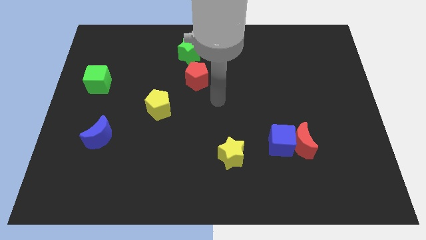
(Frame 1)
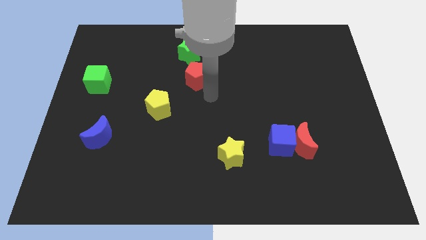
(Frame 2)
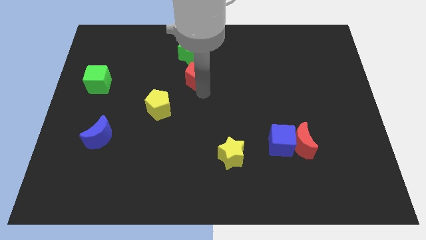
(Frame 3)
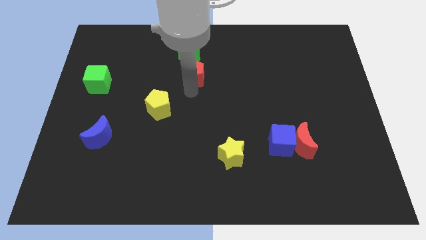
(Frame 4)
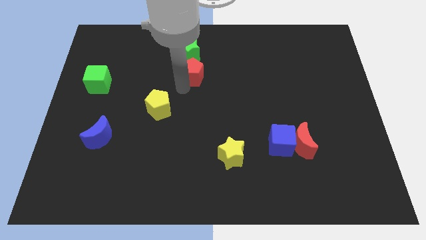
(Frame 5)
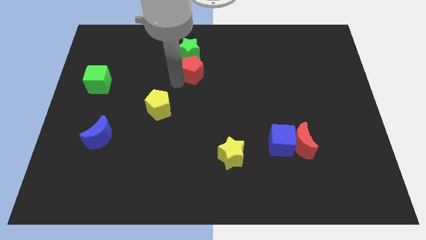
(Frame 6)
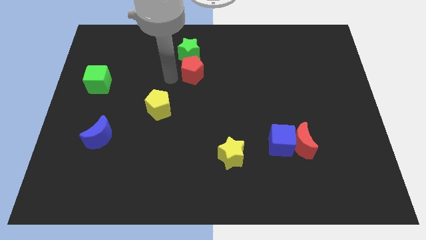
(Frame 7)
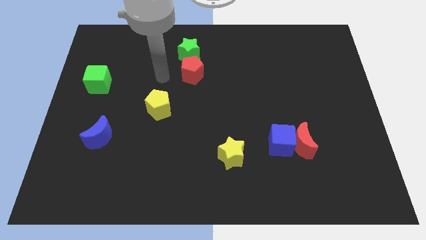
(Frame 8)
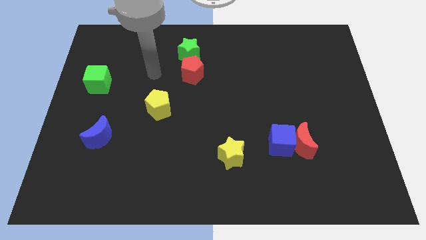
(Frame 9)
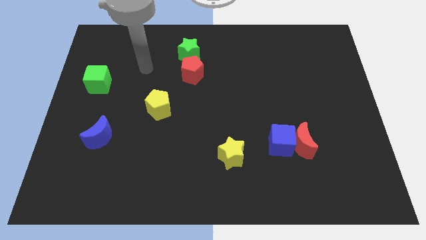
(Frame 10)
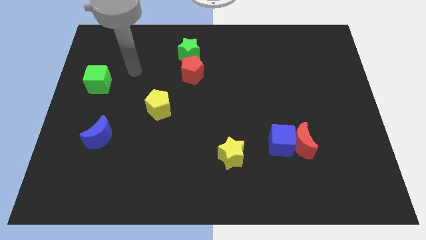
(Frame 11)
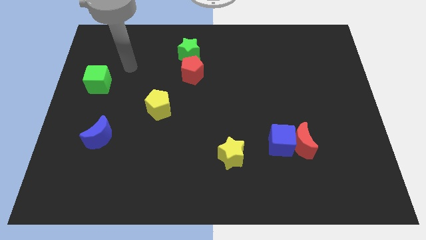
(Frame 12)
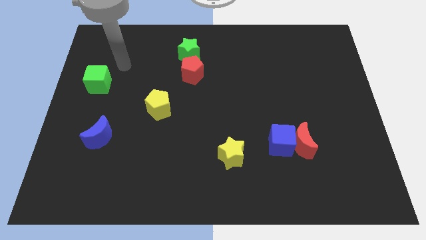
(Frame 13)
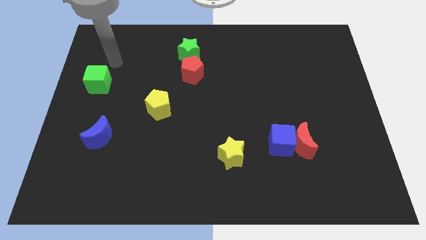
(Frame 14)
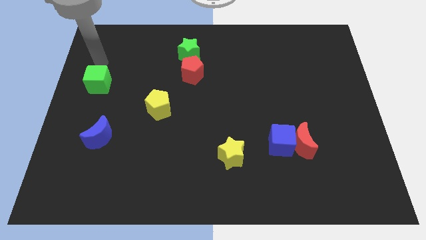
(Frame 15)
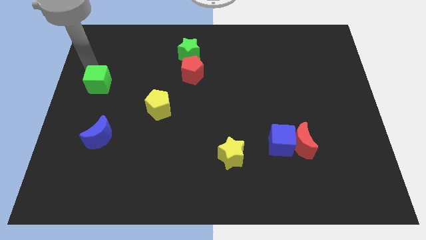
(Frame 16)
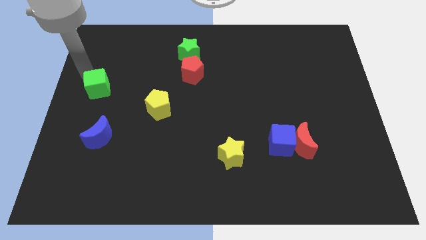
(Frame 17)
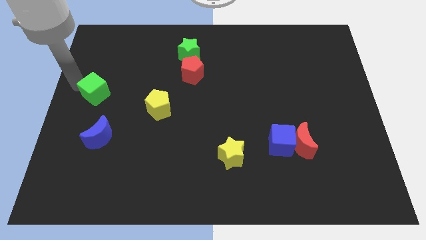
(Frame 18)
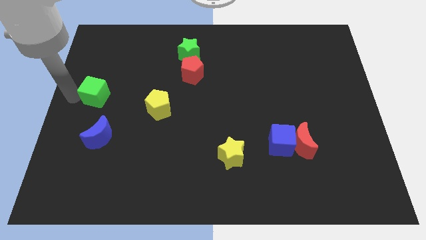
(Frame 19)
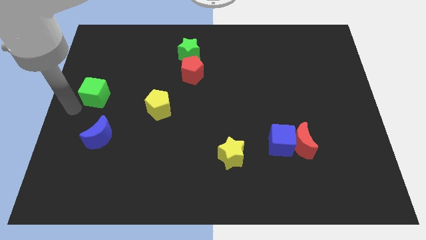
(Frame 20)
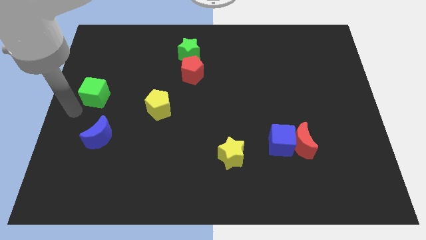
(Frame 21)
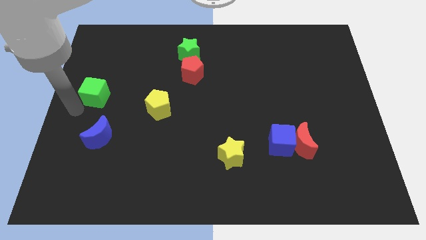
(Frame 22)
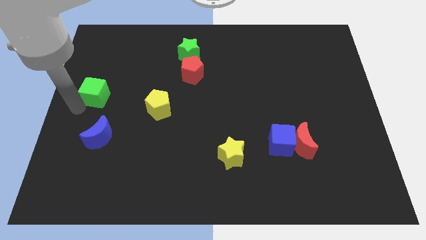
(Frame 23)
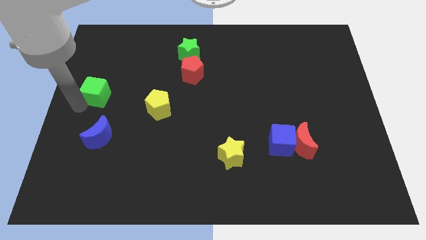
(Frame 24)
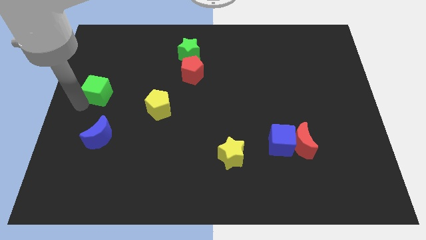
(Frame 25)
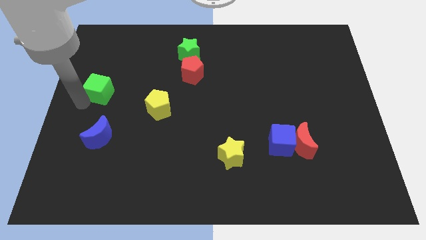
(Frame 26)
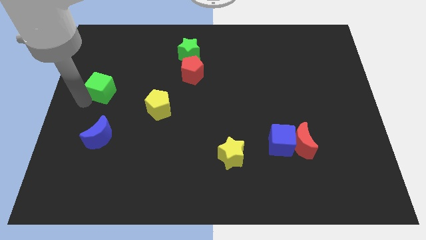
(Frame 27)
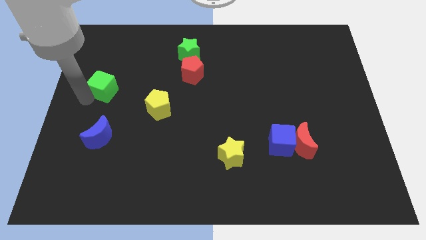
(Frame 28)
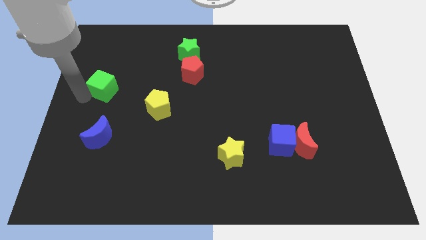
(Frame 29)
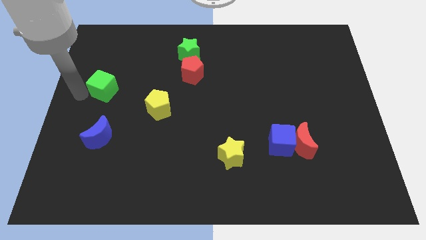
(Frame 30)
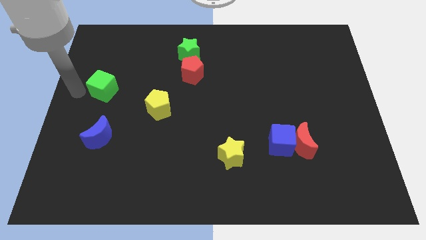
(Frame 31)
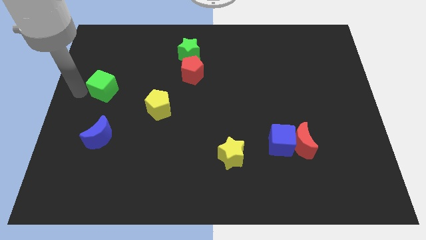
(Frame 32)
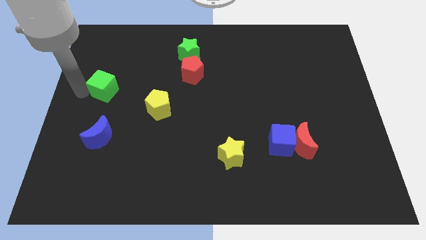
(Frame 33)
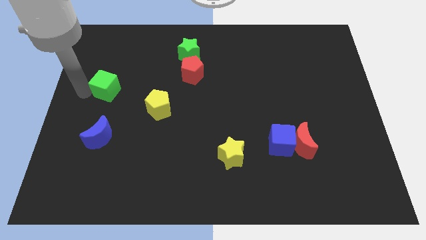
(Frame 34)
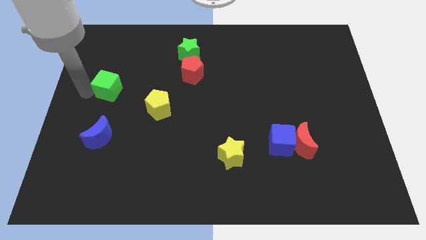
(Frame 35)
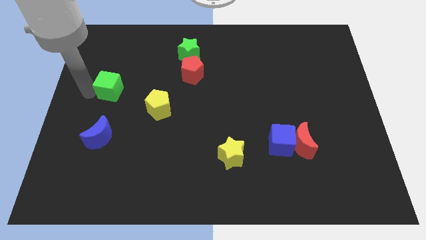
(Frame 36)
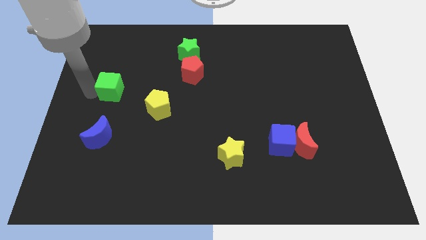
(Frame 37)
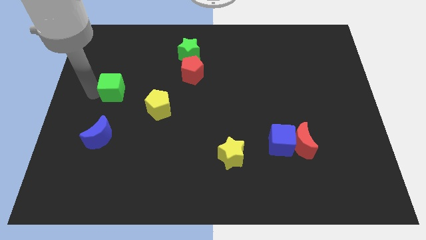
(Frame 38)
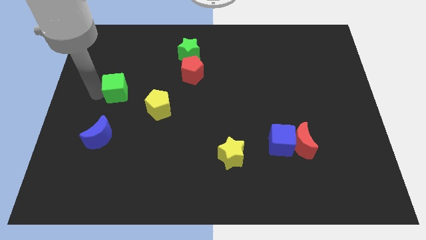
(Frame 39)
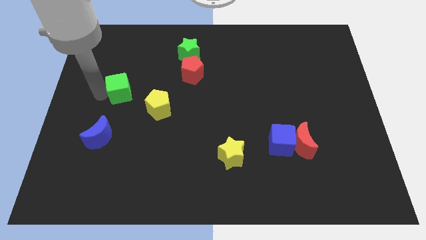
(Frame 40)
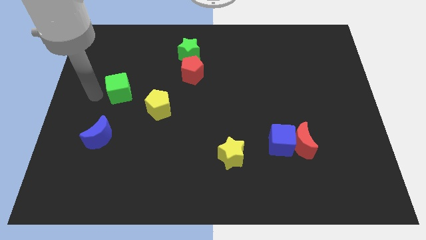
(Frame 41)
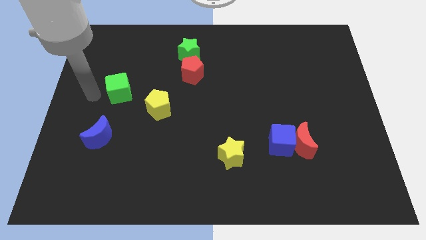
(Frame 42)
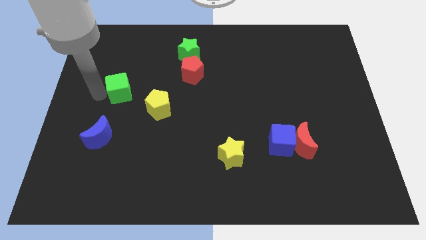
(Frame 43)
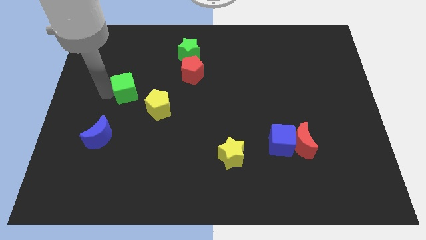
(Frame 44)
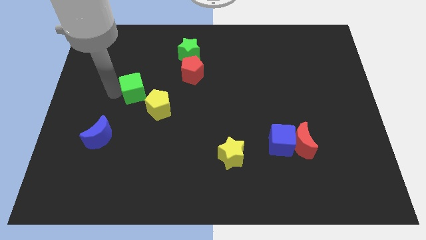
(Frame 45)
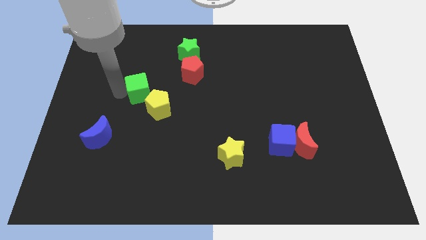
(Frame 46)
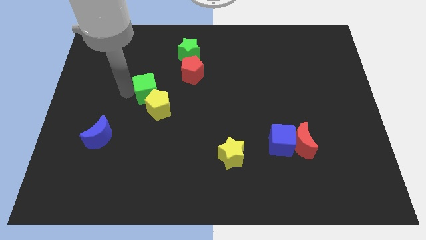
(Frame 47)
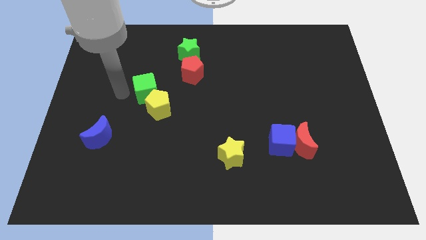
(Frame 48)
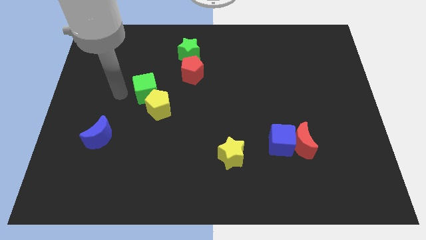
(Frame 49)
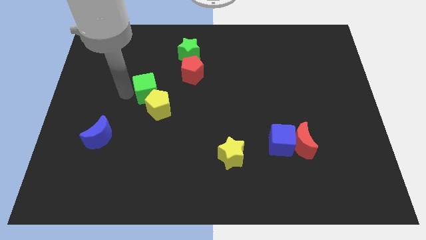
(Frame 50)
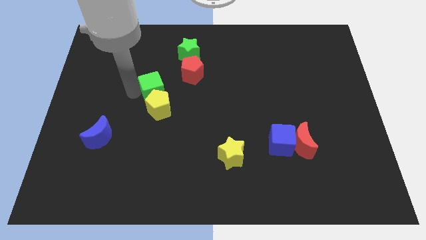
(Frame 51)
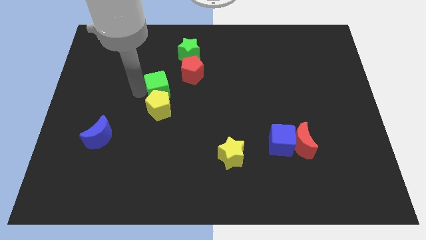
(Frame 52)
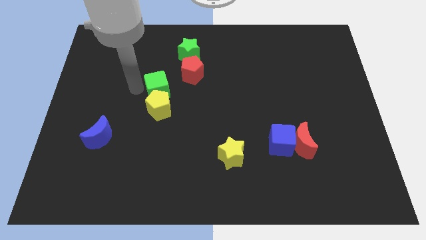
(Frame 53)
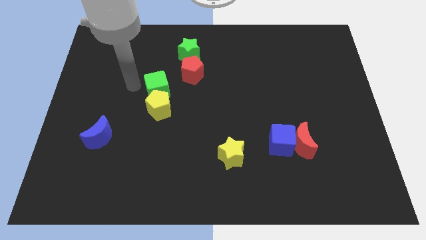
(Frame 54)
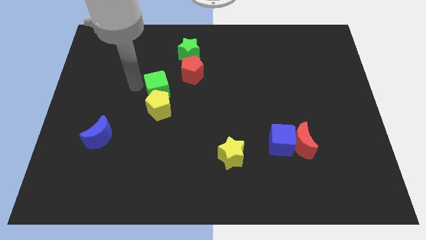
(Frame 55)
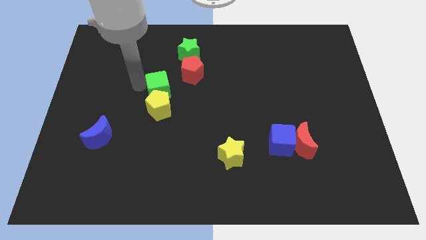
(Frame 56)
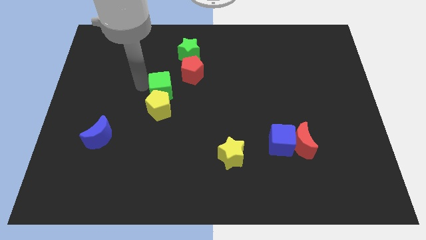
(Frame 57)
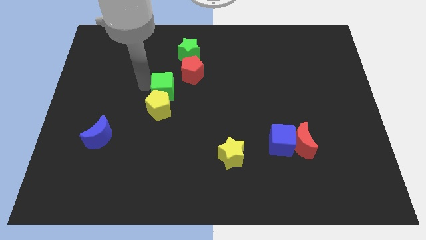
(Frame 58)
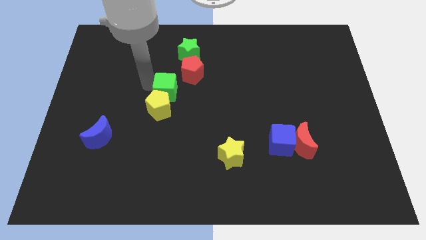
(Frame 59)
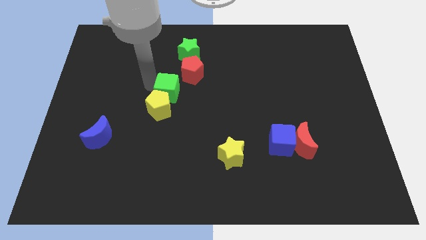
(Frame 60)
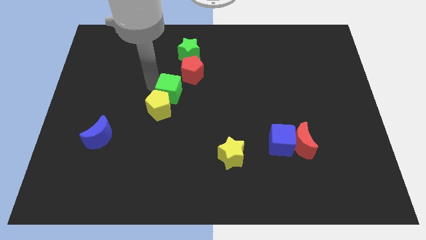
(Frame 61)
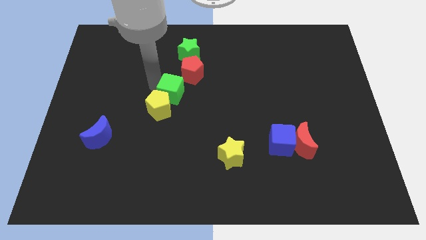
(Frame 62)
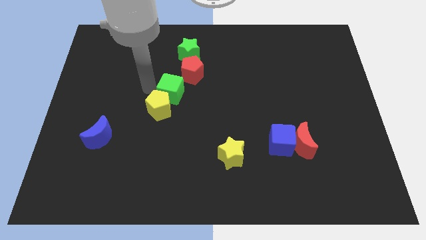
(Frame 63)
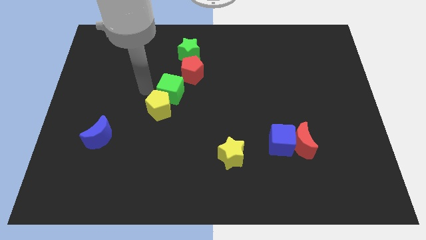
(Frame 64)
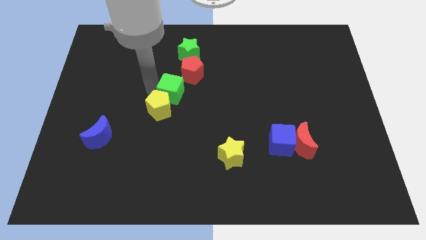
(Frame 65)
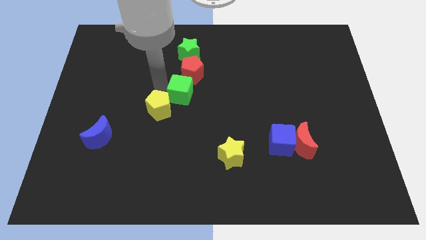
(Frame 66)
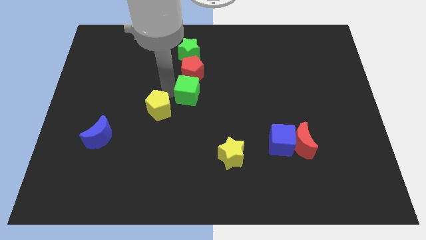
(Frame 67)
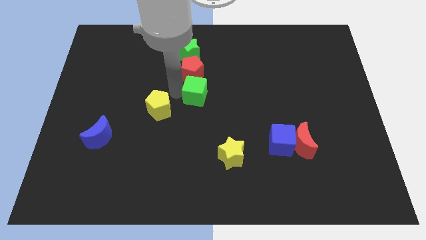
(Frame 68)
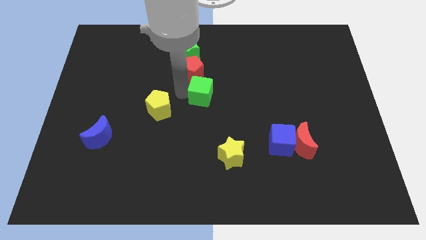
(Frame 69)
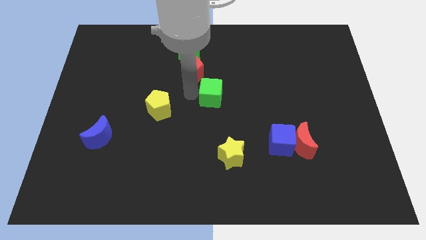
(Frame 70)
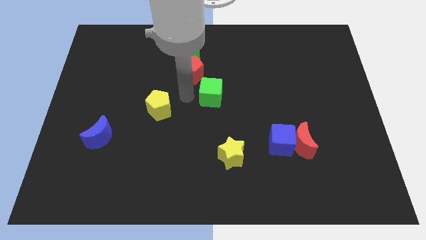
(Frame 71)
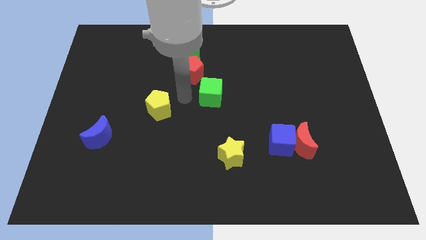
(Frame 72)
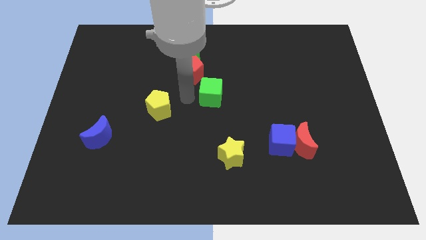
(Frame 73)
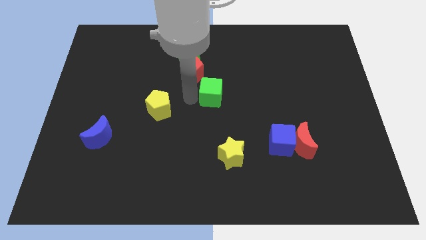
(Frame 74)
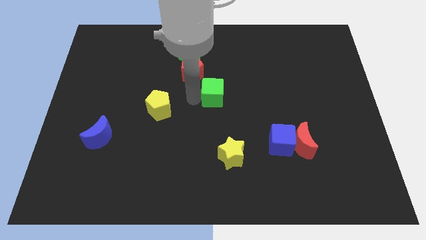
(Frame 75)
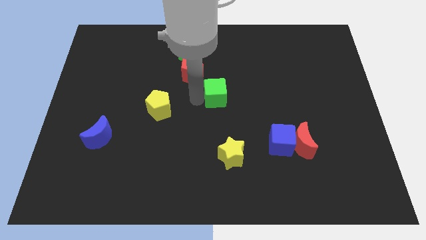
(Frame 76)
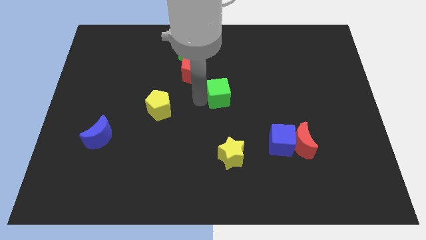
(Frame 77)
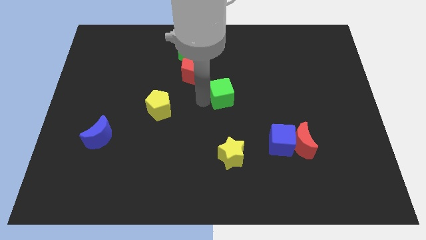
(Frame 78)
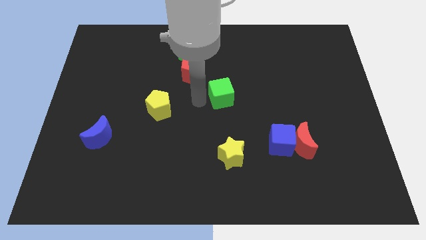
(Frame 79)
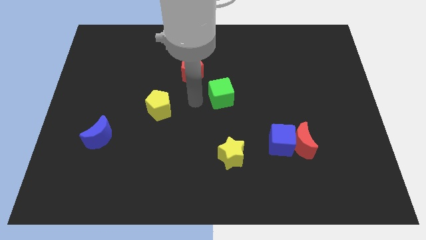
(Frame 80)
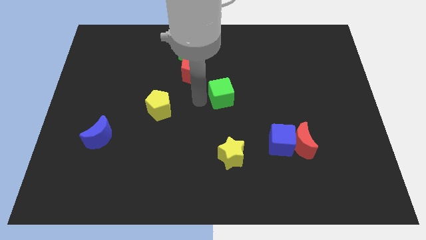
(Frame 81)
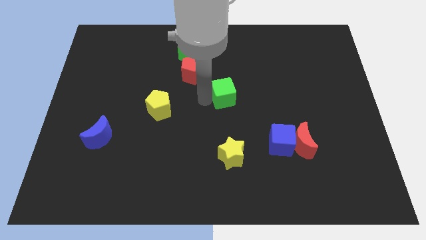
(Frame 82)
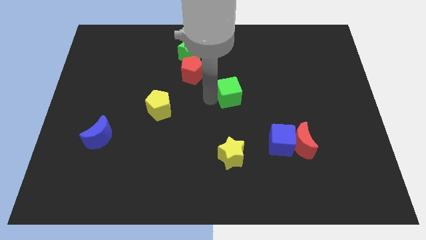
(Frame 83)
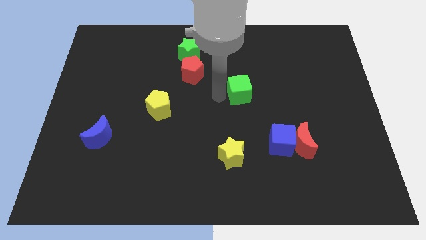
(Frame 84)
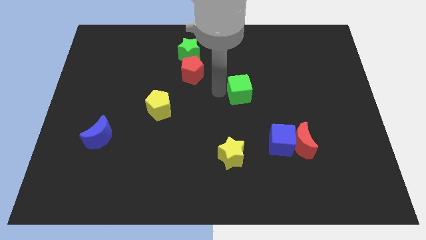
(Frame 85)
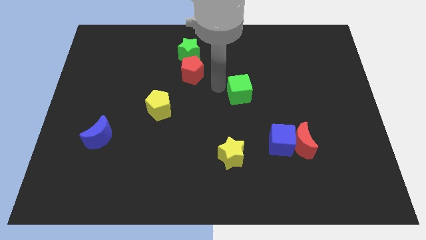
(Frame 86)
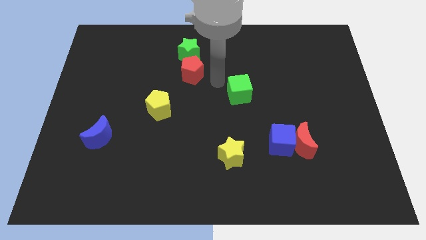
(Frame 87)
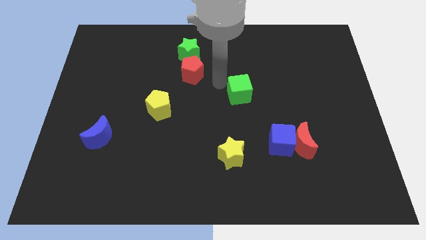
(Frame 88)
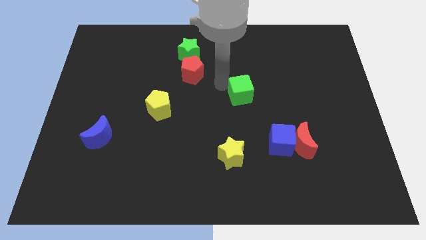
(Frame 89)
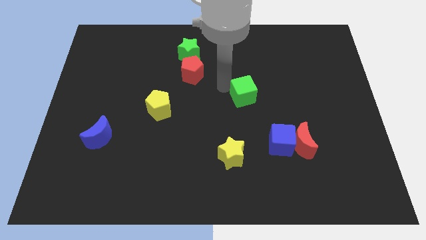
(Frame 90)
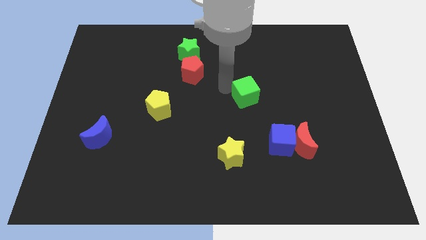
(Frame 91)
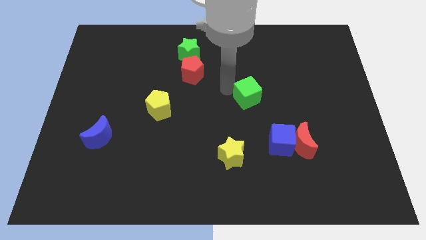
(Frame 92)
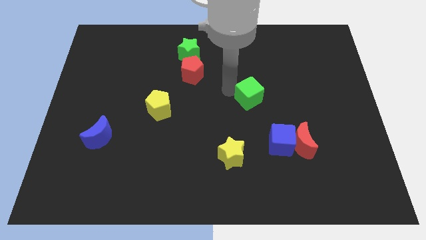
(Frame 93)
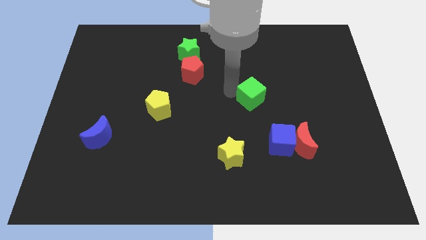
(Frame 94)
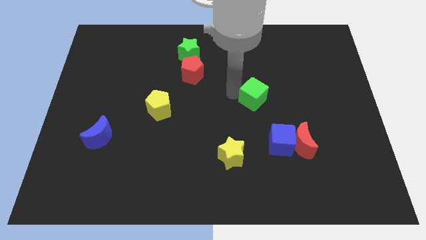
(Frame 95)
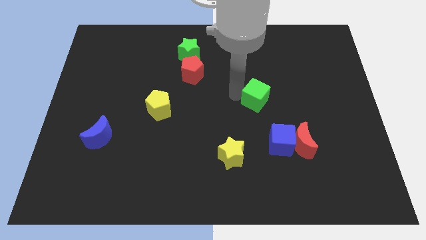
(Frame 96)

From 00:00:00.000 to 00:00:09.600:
move the green cube above the blue cube
